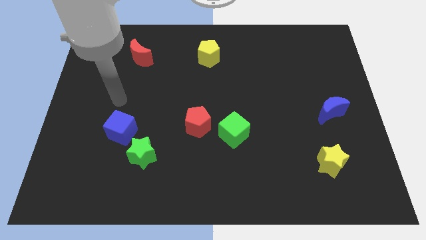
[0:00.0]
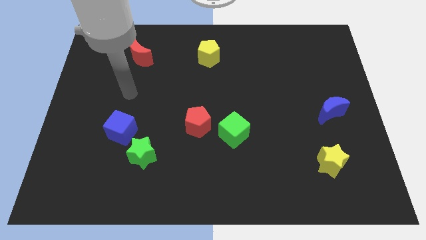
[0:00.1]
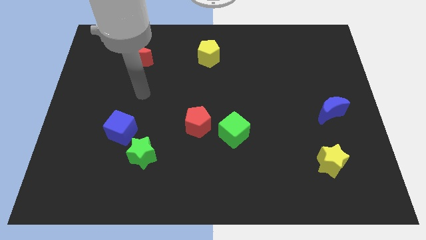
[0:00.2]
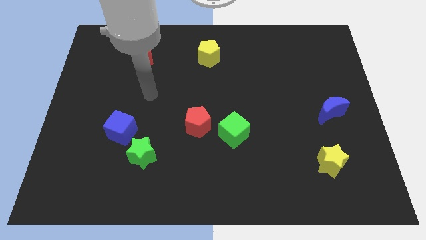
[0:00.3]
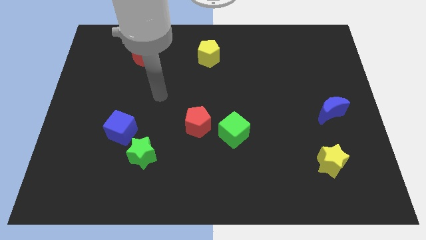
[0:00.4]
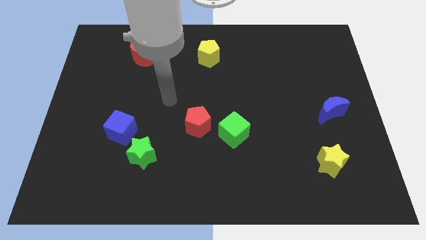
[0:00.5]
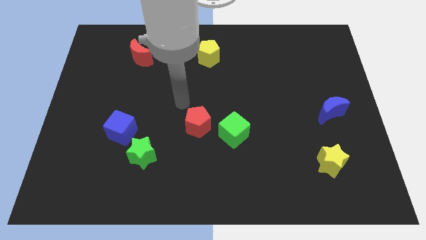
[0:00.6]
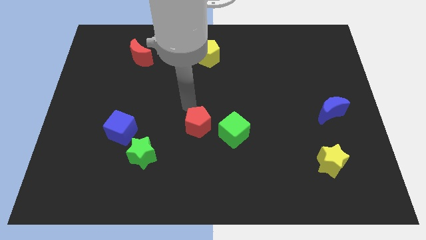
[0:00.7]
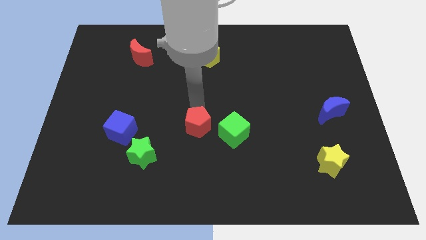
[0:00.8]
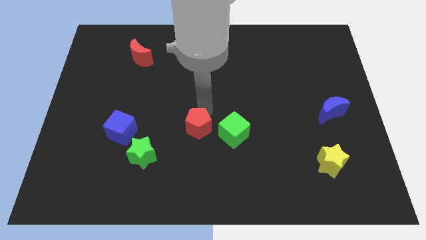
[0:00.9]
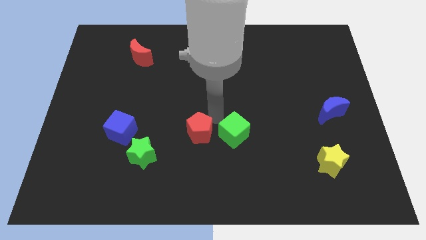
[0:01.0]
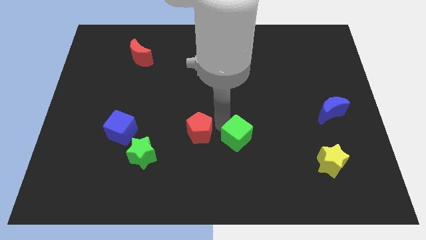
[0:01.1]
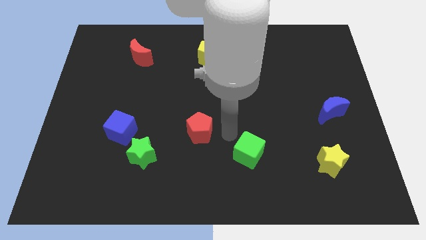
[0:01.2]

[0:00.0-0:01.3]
move the red pentagon away from the green cube

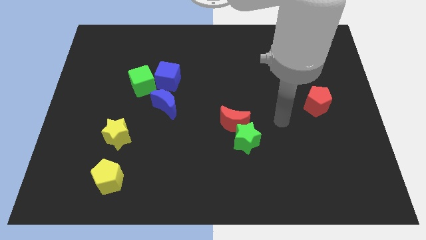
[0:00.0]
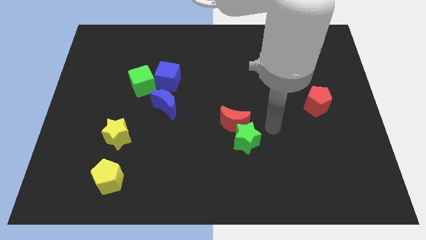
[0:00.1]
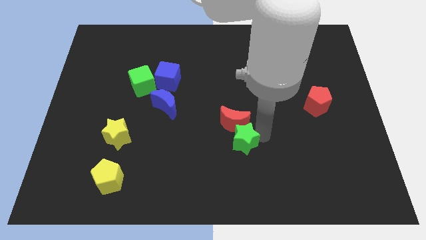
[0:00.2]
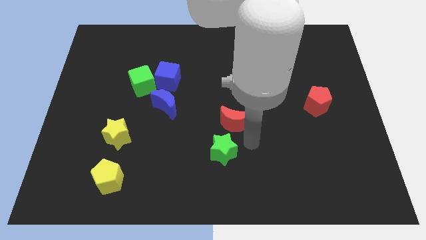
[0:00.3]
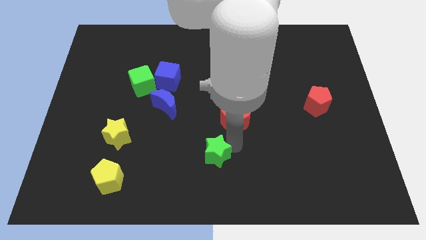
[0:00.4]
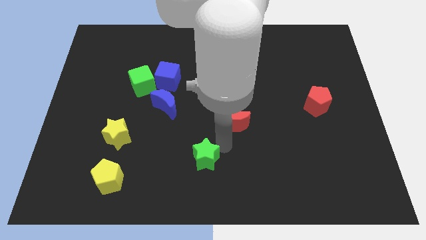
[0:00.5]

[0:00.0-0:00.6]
separate the red moon from the green star

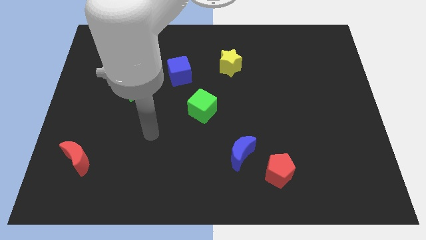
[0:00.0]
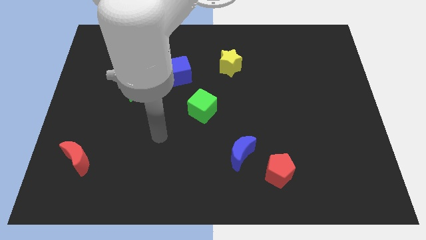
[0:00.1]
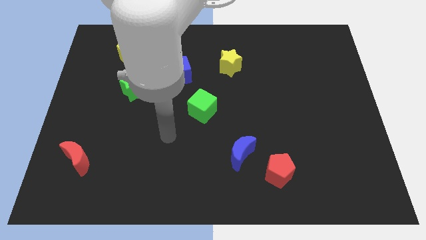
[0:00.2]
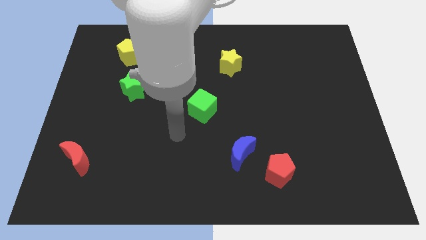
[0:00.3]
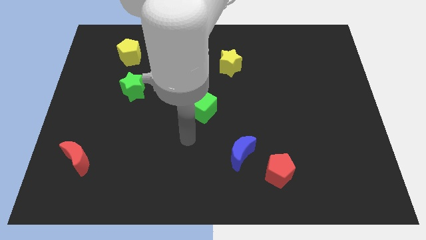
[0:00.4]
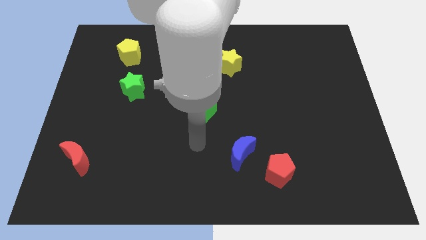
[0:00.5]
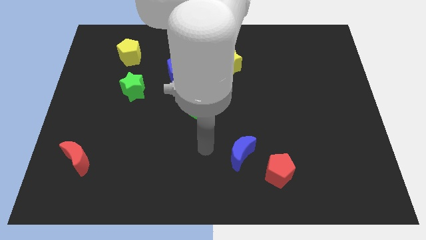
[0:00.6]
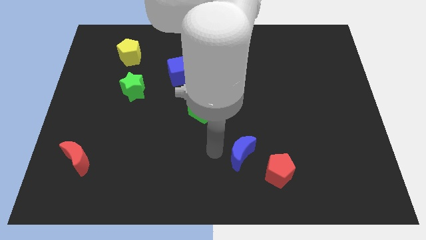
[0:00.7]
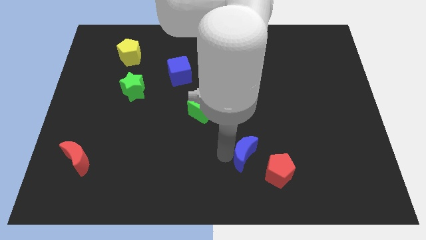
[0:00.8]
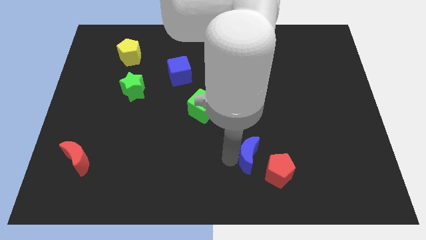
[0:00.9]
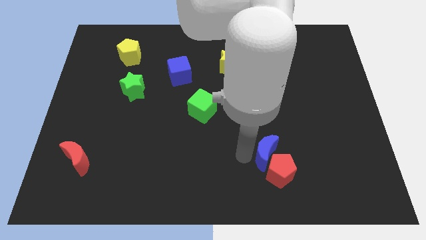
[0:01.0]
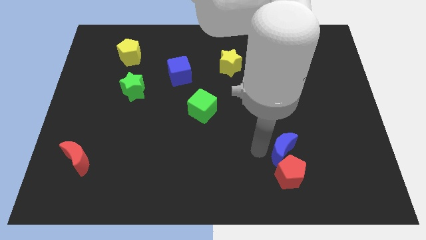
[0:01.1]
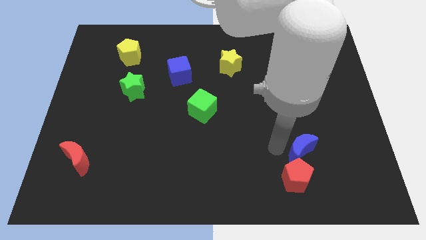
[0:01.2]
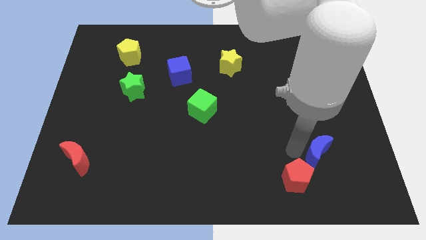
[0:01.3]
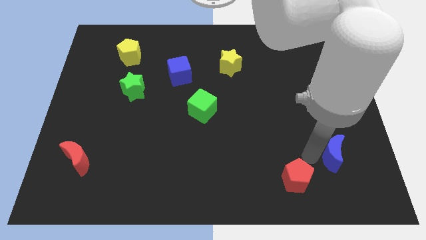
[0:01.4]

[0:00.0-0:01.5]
separate the red pentagon from the blue moon

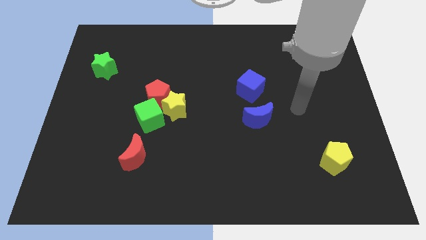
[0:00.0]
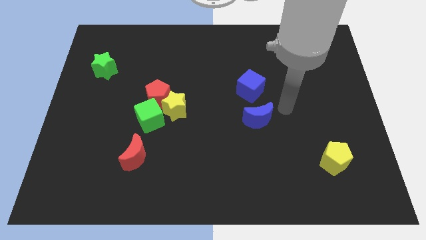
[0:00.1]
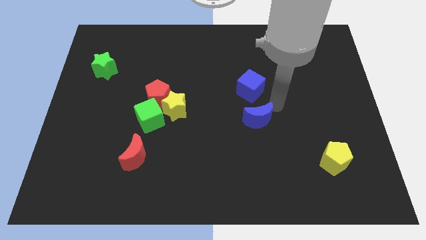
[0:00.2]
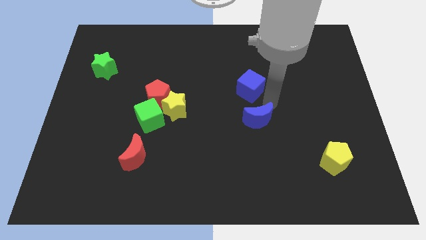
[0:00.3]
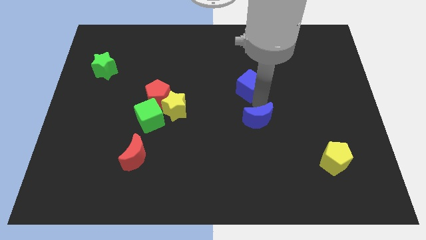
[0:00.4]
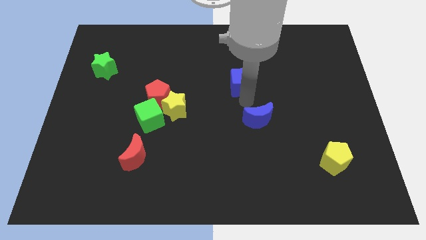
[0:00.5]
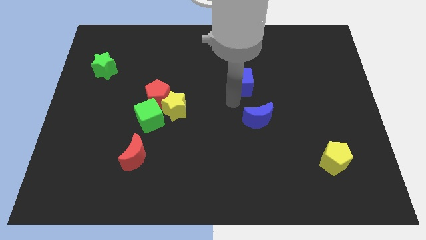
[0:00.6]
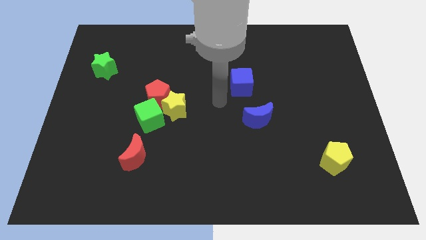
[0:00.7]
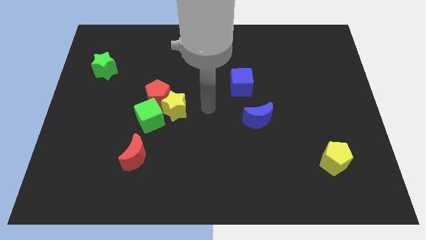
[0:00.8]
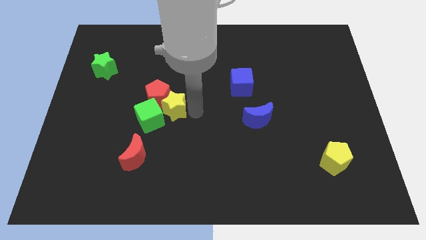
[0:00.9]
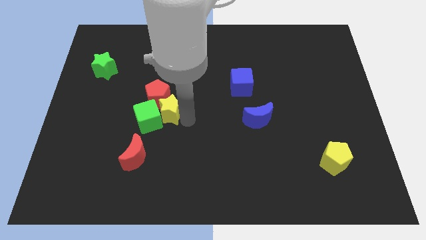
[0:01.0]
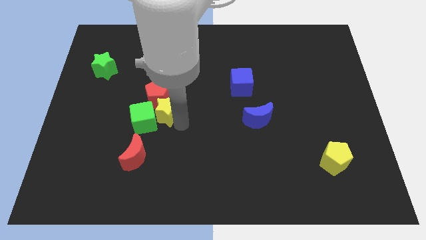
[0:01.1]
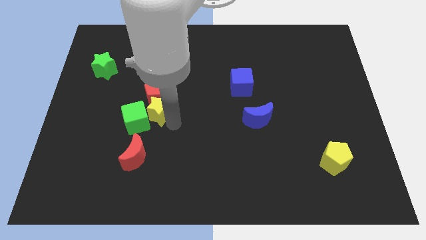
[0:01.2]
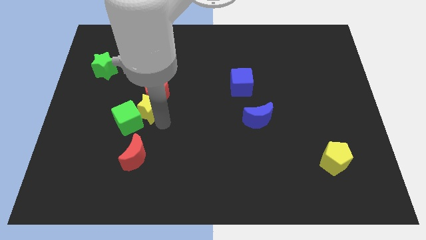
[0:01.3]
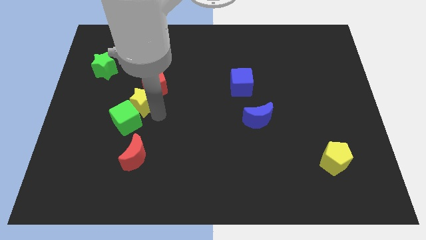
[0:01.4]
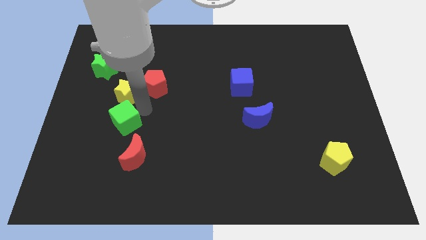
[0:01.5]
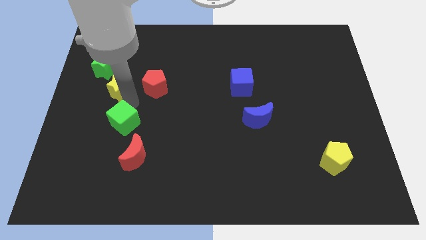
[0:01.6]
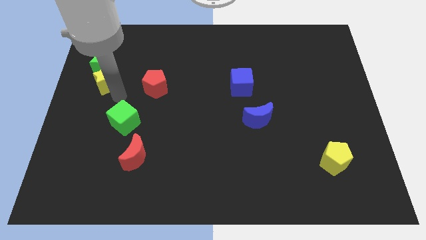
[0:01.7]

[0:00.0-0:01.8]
pull the yellow star apart from the red pentagon and green cube

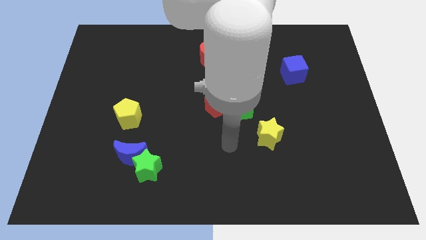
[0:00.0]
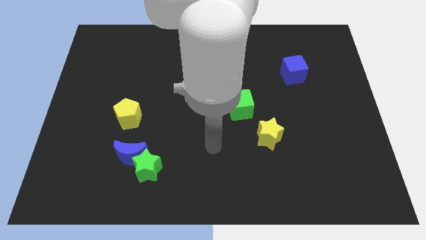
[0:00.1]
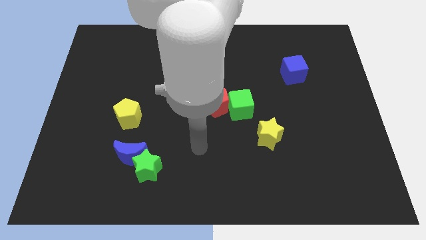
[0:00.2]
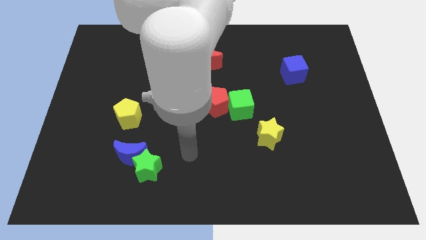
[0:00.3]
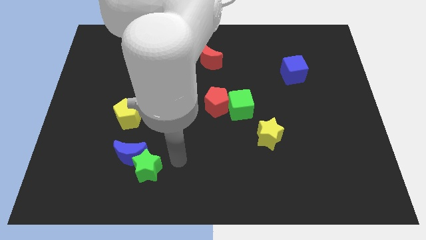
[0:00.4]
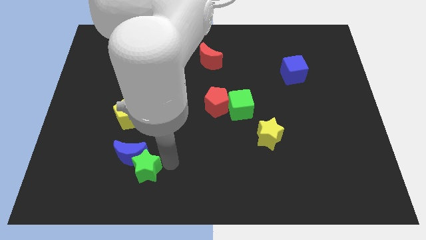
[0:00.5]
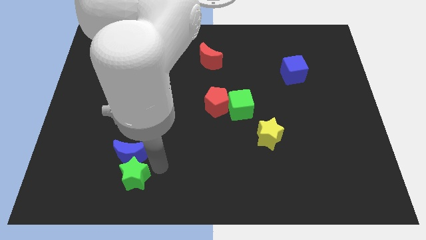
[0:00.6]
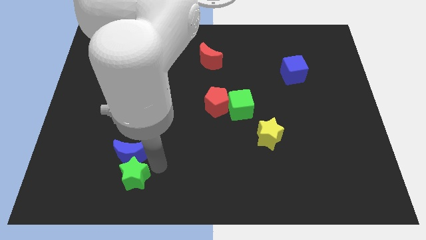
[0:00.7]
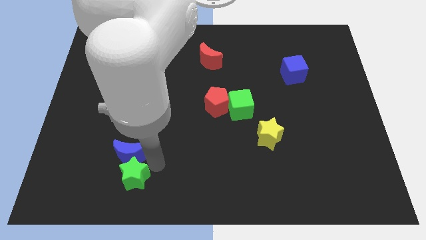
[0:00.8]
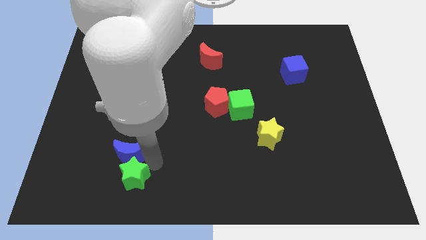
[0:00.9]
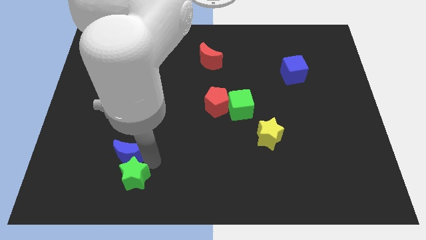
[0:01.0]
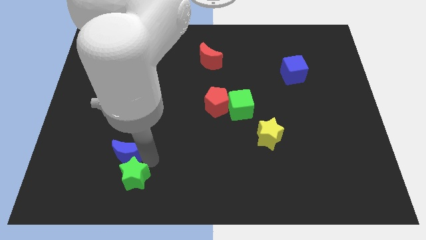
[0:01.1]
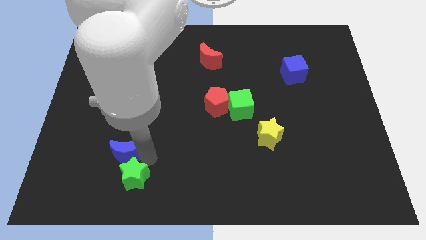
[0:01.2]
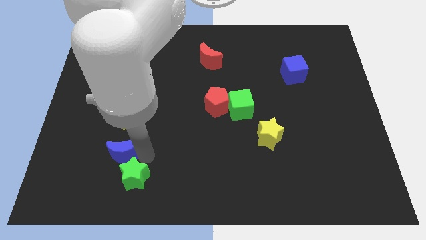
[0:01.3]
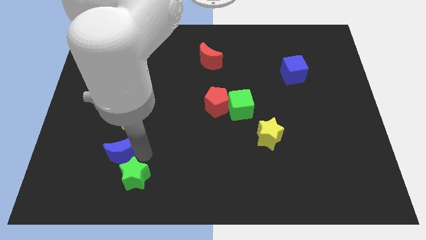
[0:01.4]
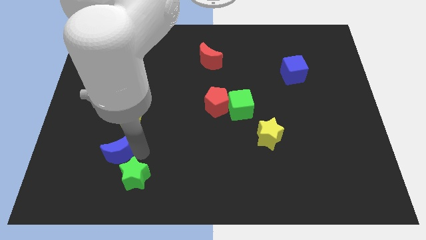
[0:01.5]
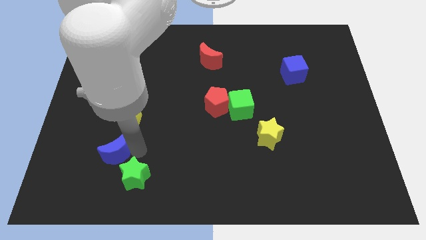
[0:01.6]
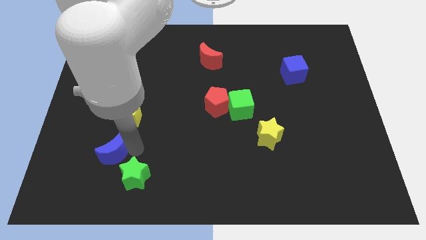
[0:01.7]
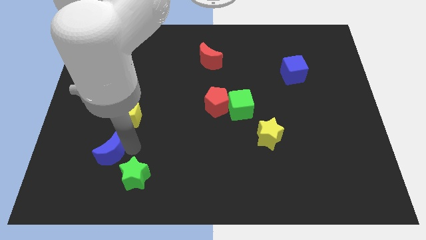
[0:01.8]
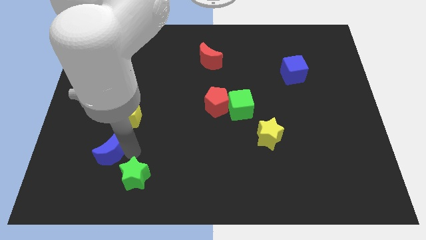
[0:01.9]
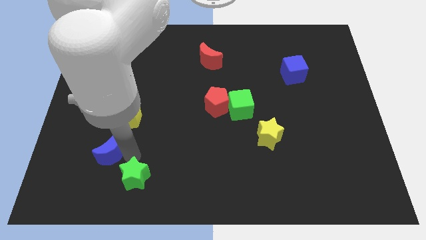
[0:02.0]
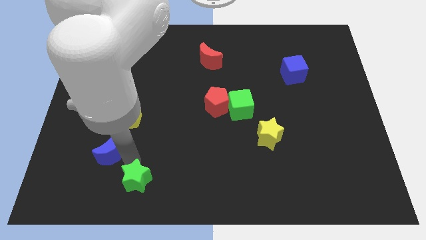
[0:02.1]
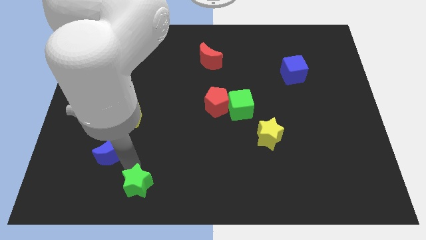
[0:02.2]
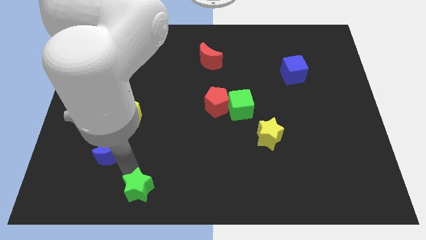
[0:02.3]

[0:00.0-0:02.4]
separate the blue moon from the green star

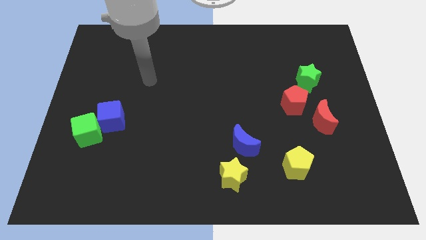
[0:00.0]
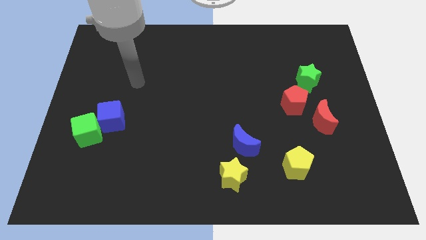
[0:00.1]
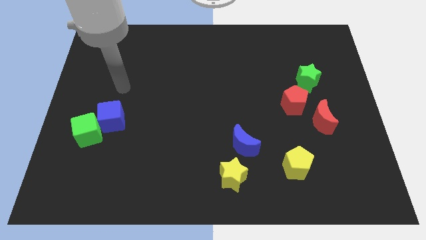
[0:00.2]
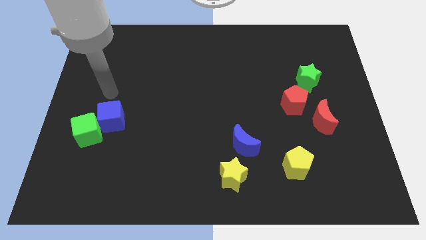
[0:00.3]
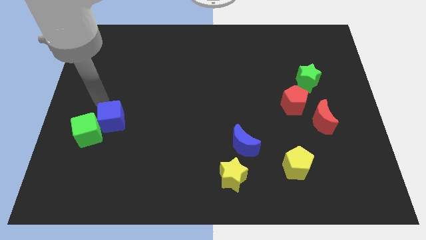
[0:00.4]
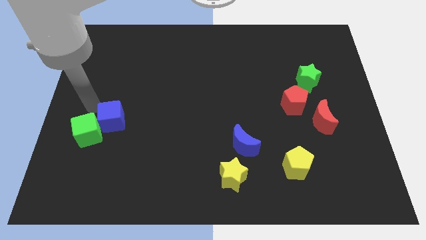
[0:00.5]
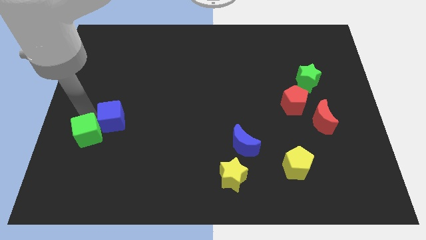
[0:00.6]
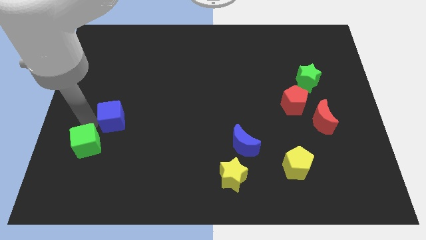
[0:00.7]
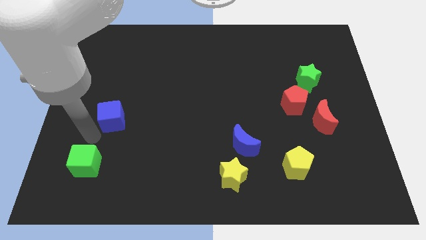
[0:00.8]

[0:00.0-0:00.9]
move the blue cube away from the green cube

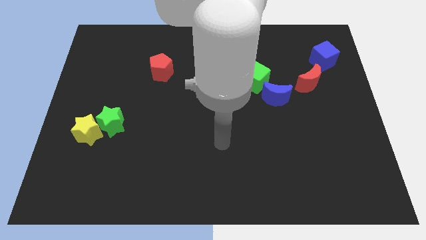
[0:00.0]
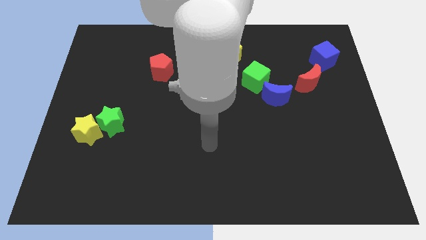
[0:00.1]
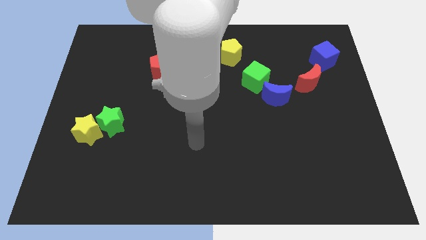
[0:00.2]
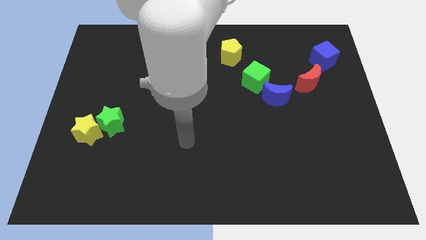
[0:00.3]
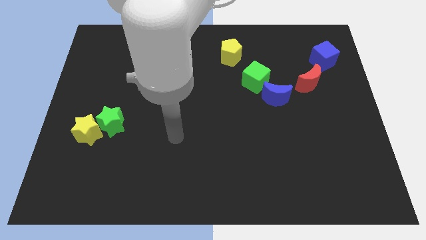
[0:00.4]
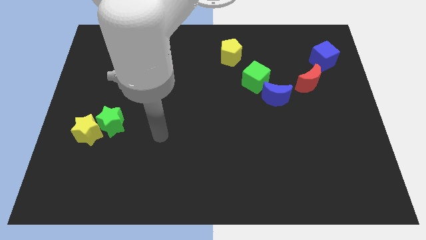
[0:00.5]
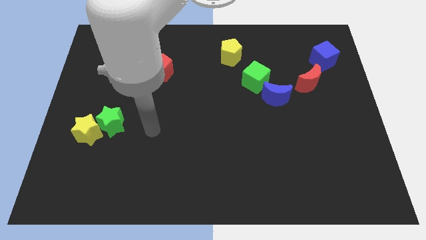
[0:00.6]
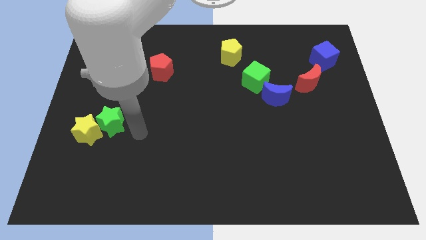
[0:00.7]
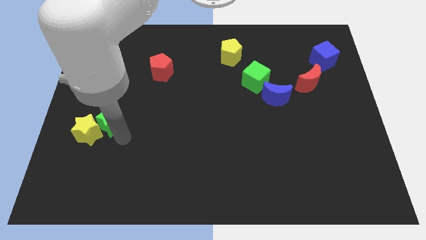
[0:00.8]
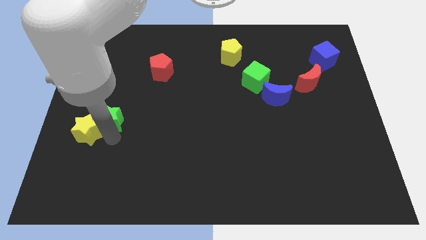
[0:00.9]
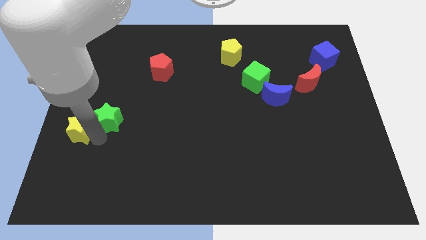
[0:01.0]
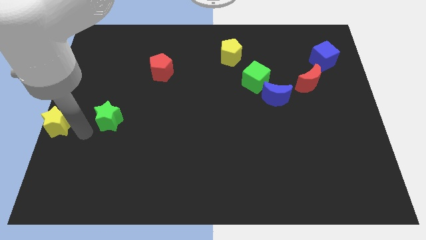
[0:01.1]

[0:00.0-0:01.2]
move the green star away from the yellow star
